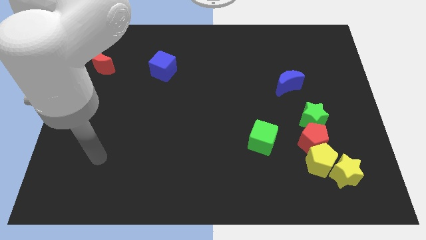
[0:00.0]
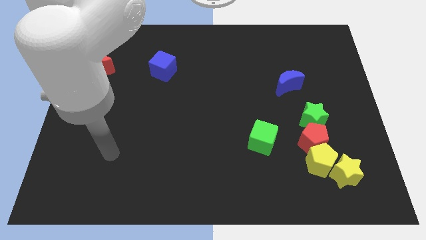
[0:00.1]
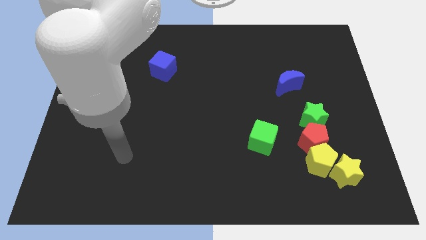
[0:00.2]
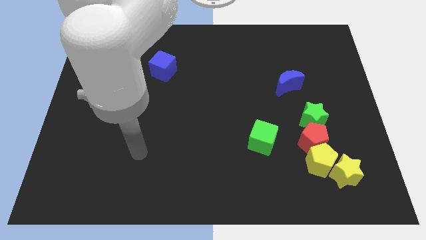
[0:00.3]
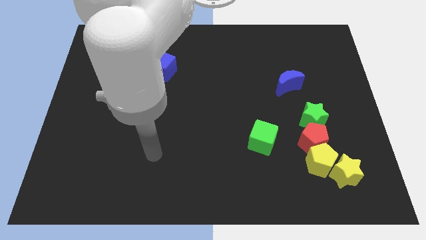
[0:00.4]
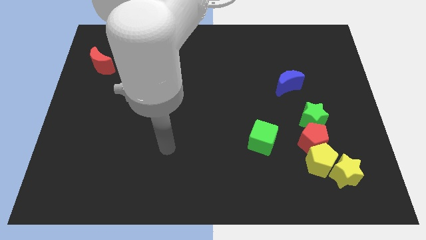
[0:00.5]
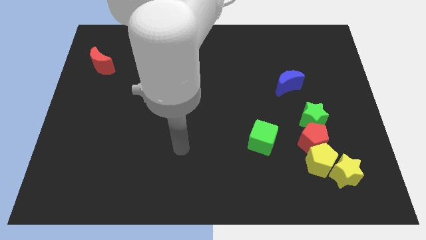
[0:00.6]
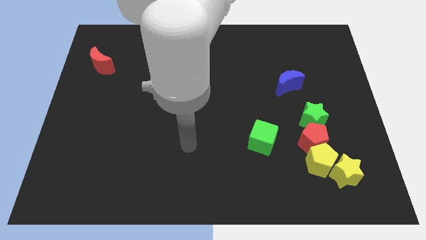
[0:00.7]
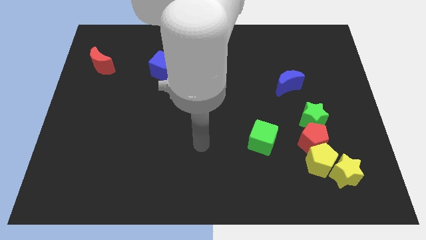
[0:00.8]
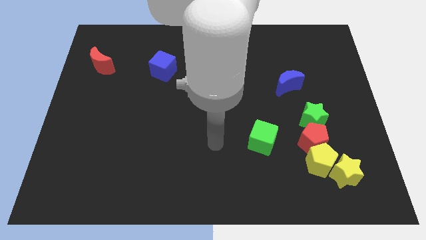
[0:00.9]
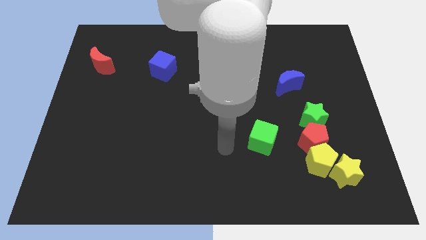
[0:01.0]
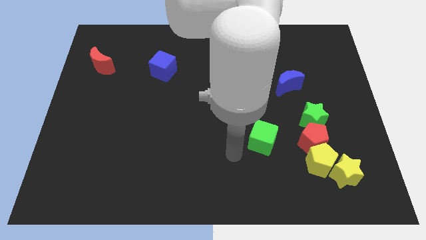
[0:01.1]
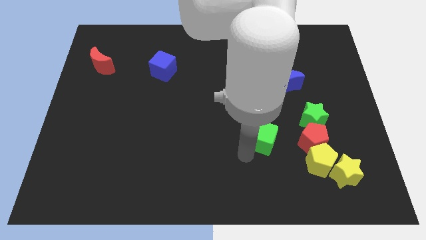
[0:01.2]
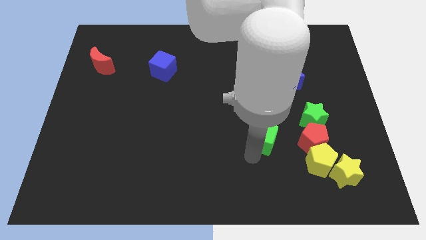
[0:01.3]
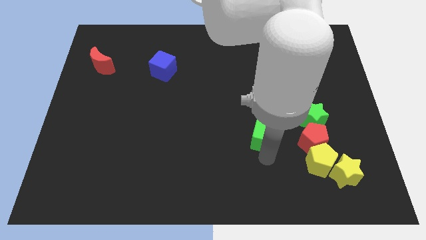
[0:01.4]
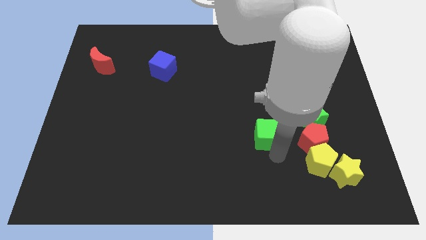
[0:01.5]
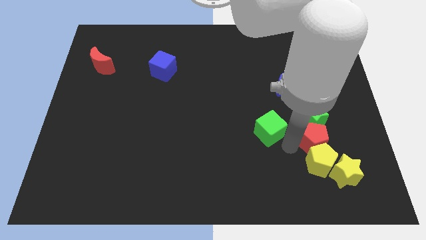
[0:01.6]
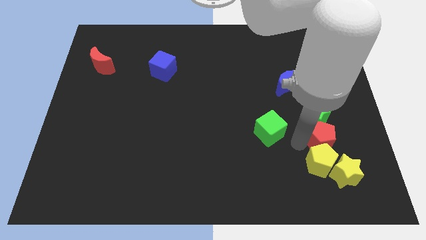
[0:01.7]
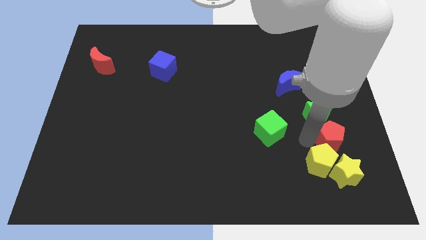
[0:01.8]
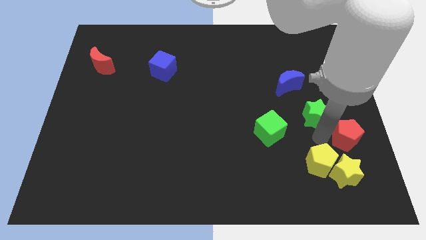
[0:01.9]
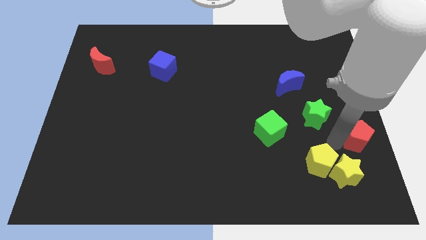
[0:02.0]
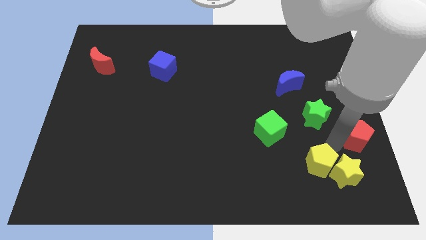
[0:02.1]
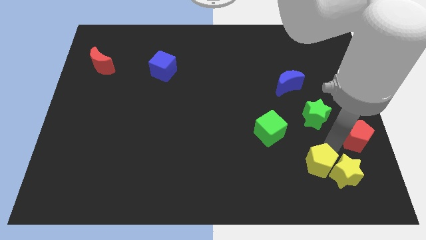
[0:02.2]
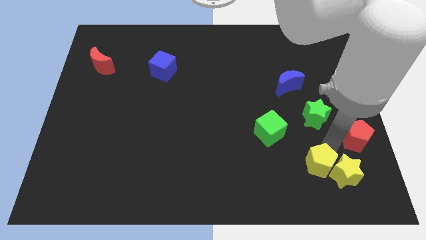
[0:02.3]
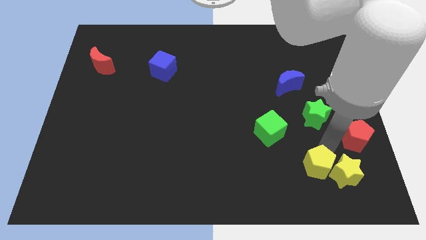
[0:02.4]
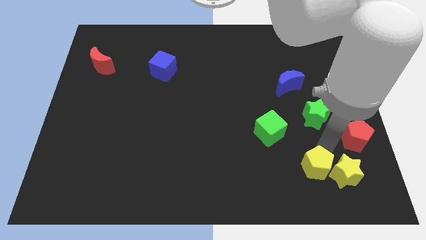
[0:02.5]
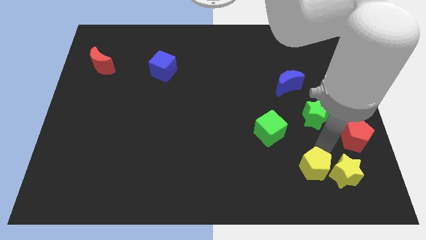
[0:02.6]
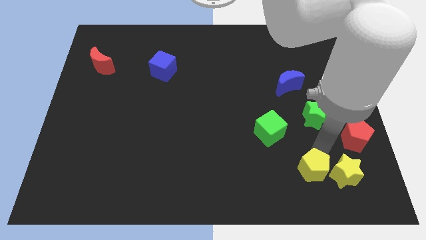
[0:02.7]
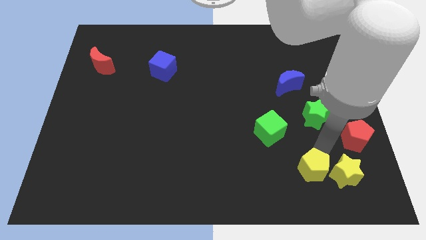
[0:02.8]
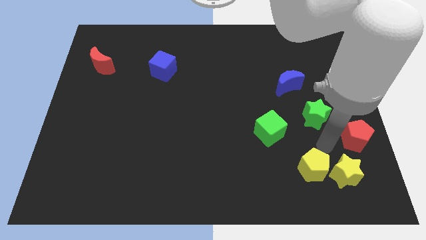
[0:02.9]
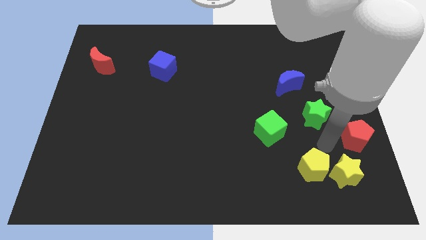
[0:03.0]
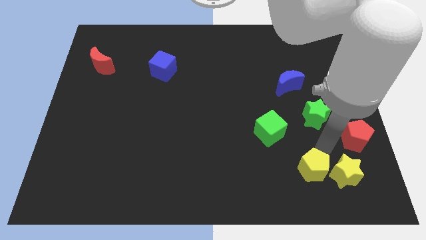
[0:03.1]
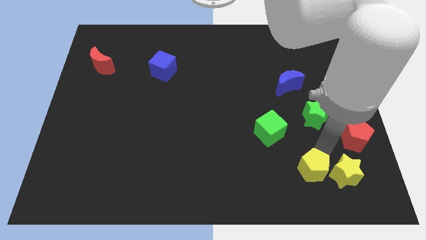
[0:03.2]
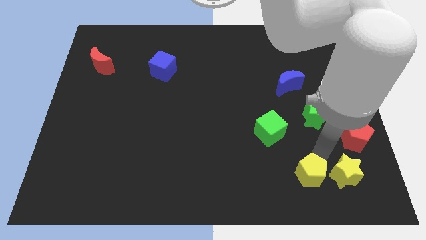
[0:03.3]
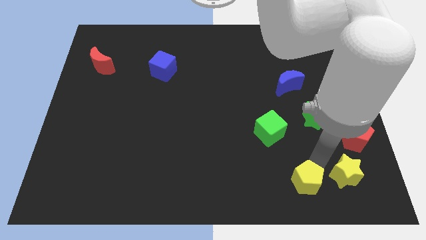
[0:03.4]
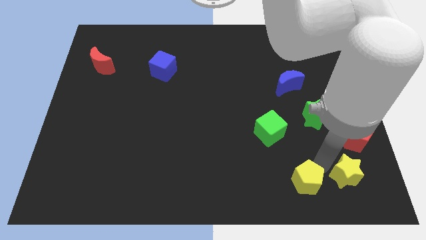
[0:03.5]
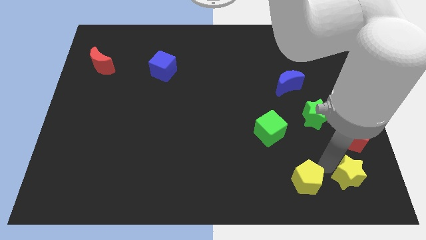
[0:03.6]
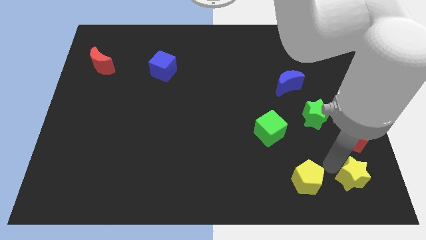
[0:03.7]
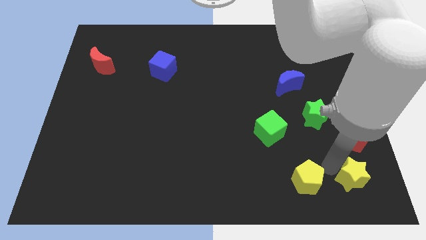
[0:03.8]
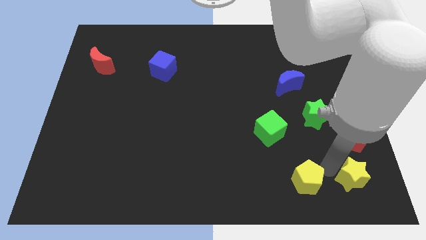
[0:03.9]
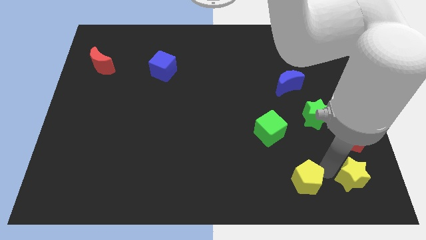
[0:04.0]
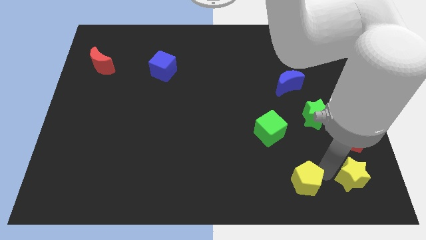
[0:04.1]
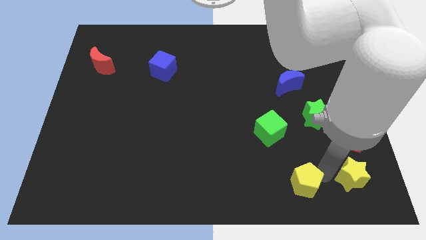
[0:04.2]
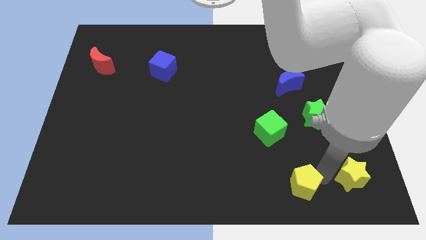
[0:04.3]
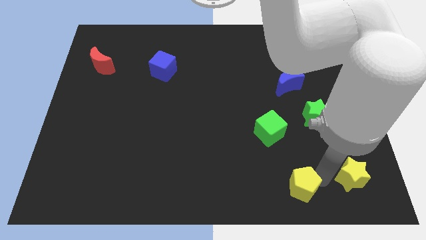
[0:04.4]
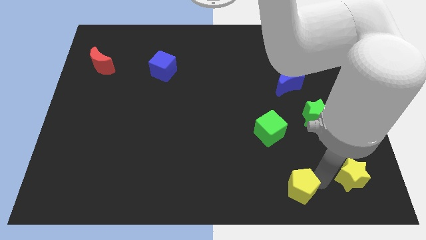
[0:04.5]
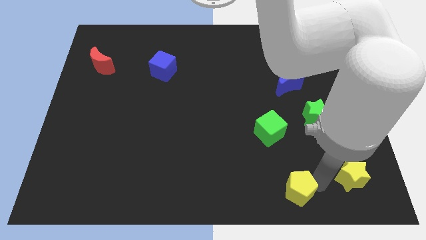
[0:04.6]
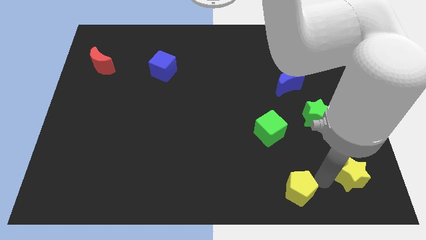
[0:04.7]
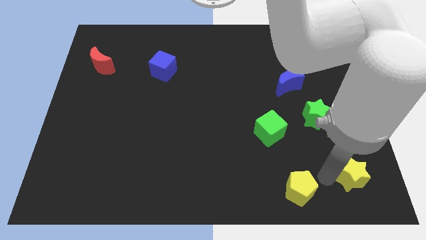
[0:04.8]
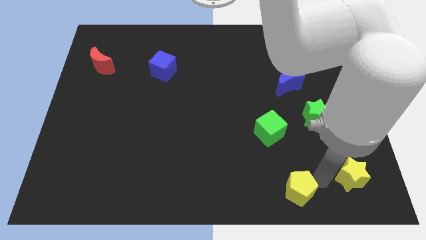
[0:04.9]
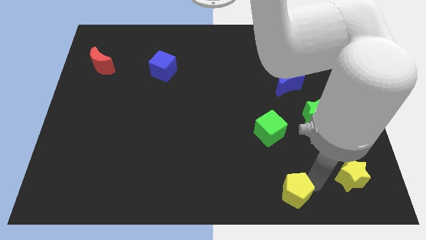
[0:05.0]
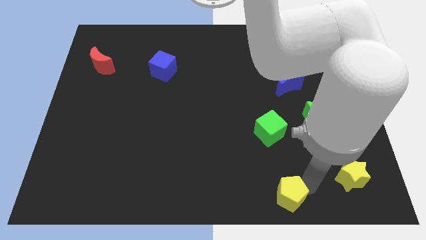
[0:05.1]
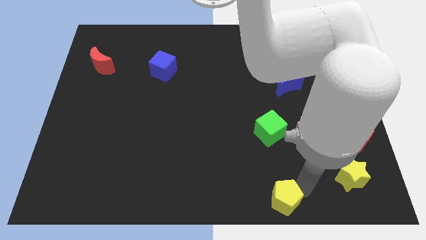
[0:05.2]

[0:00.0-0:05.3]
move the yellow pentagon to the bottom side

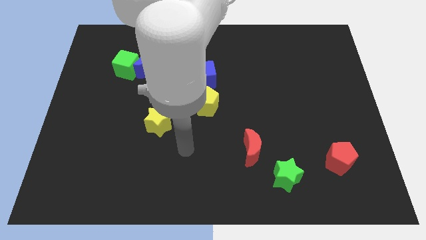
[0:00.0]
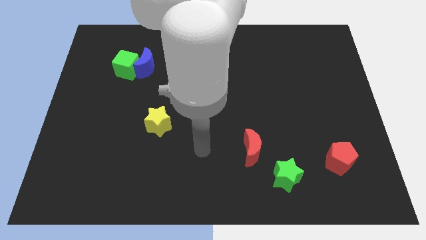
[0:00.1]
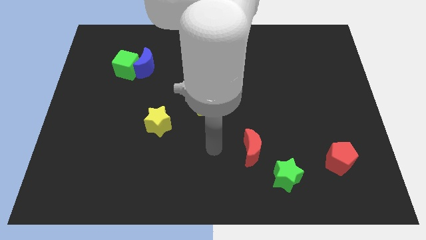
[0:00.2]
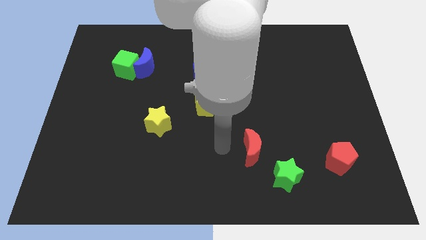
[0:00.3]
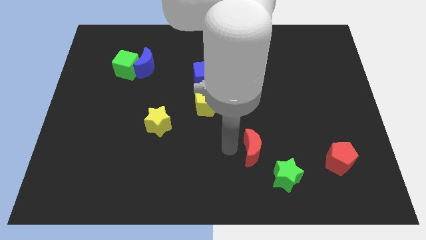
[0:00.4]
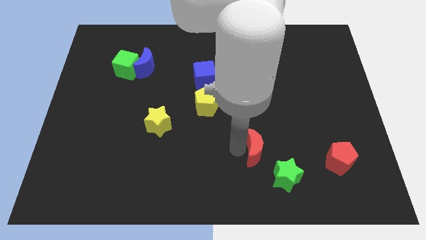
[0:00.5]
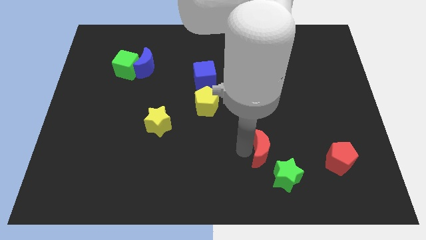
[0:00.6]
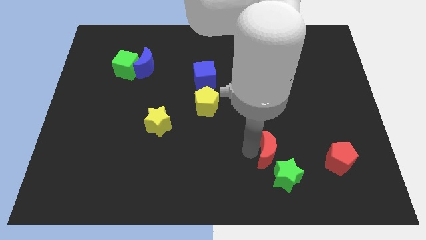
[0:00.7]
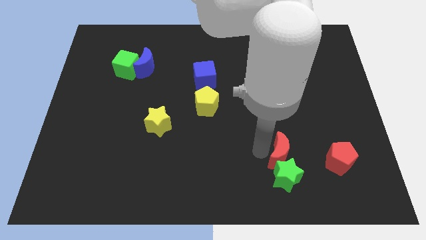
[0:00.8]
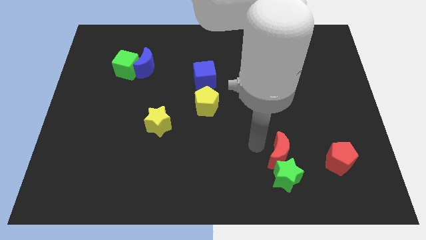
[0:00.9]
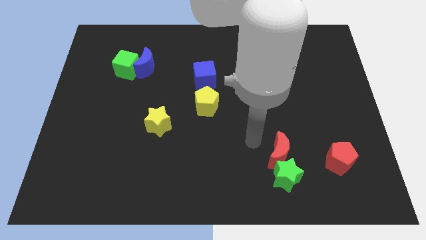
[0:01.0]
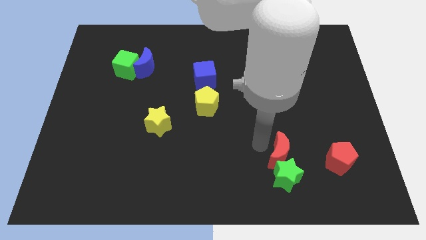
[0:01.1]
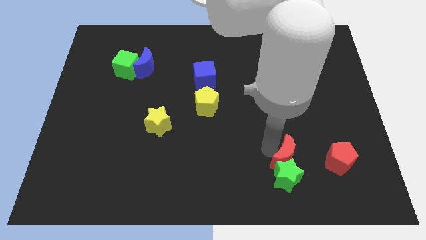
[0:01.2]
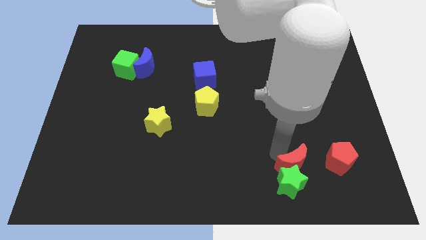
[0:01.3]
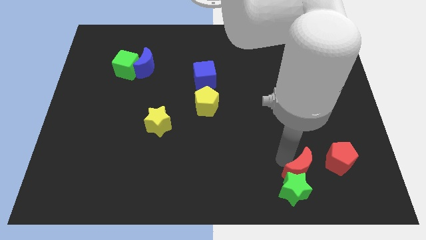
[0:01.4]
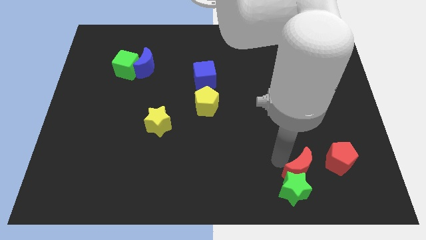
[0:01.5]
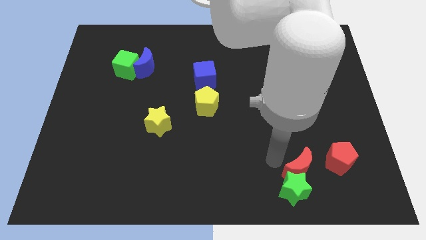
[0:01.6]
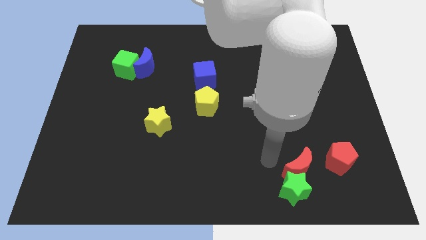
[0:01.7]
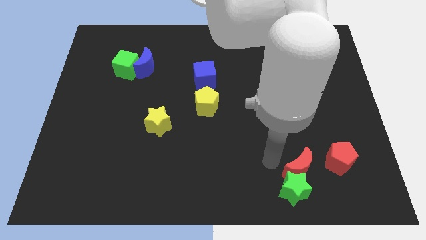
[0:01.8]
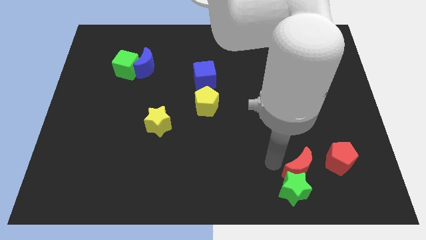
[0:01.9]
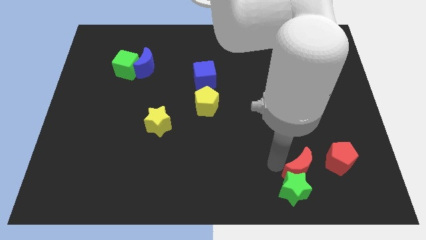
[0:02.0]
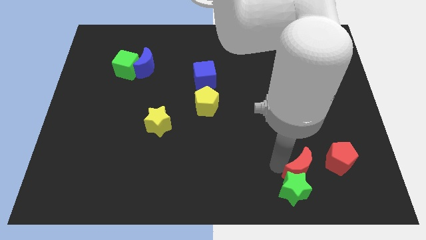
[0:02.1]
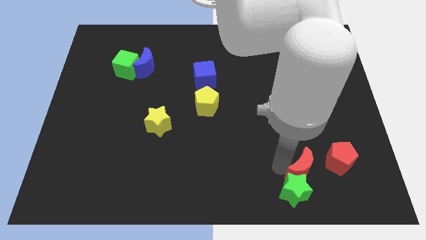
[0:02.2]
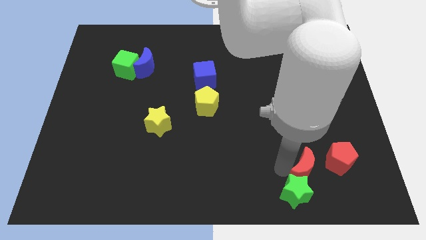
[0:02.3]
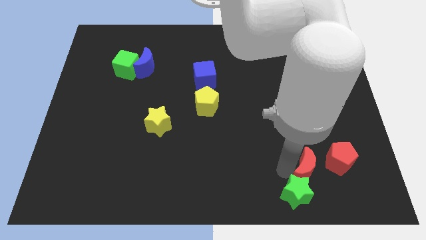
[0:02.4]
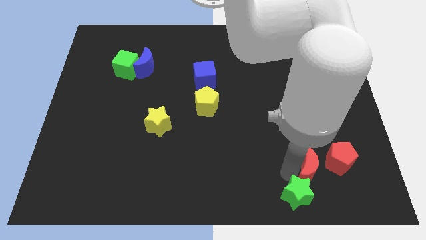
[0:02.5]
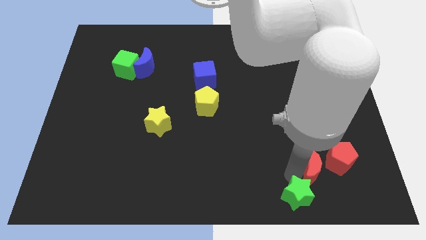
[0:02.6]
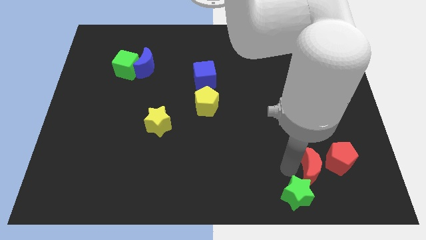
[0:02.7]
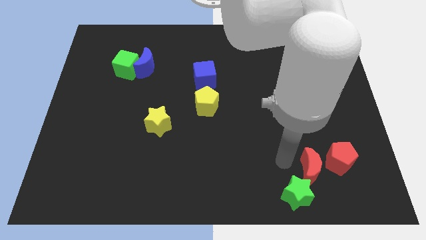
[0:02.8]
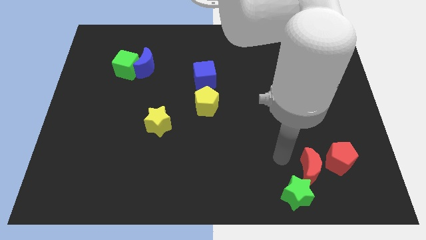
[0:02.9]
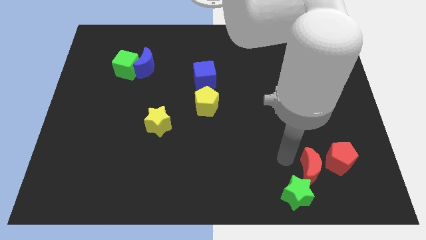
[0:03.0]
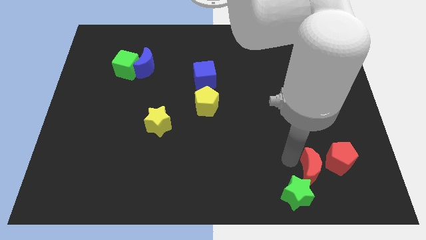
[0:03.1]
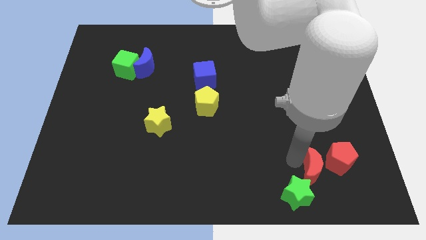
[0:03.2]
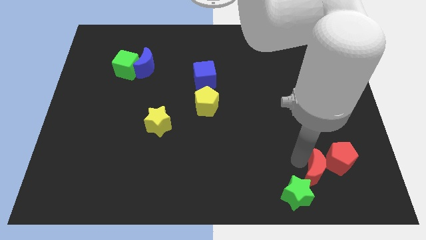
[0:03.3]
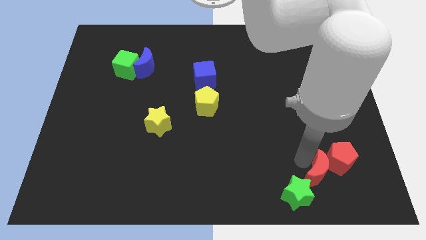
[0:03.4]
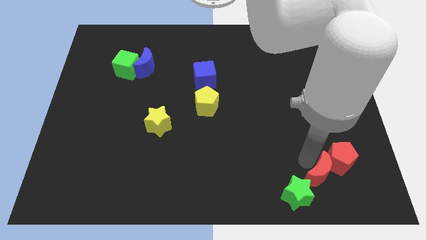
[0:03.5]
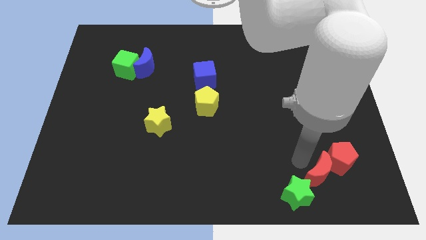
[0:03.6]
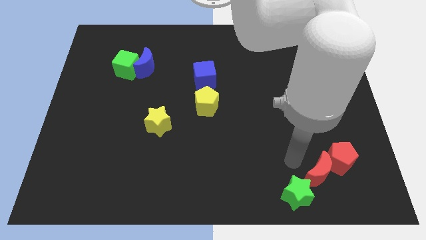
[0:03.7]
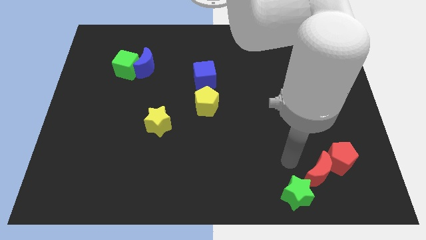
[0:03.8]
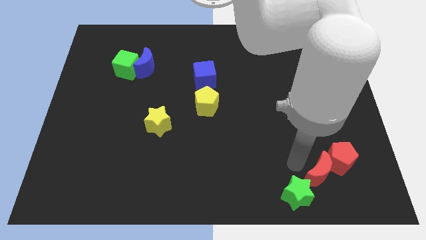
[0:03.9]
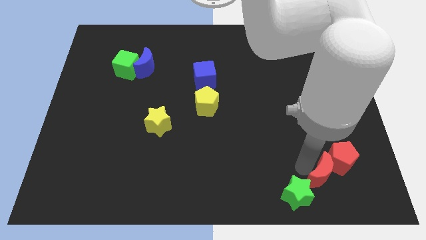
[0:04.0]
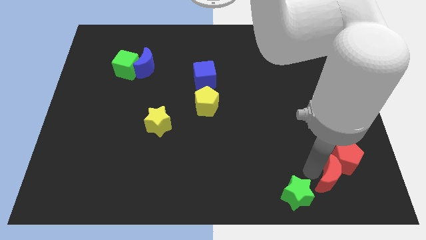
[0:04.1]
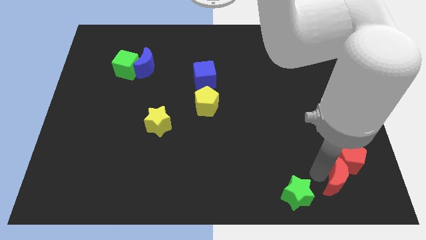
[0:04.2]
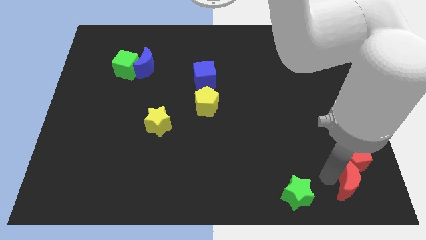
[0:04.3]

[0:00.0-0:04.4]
slide the red moon to the lower right corner
